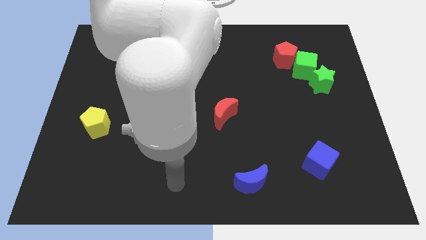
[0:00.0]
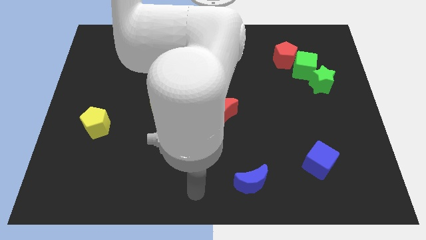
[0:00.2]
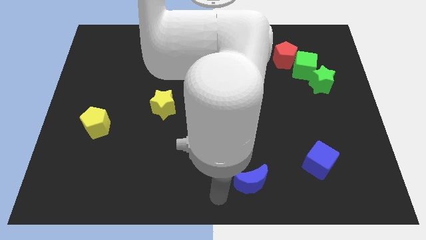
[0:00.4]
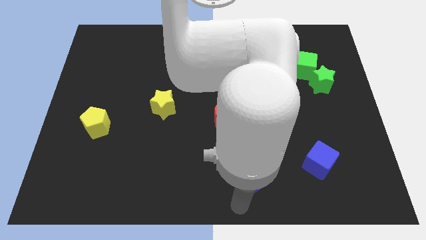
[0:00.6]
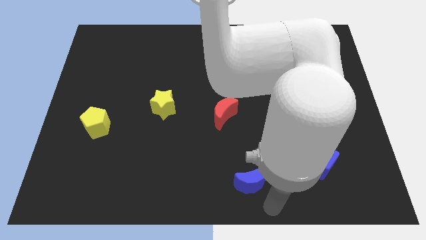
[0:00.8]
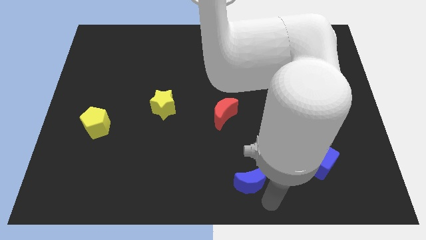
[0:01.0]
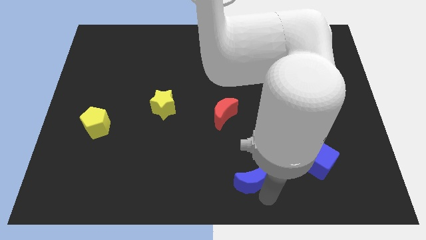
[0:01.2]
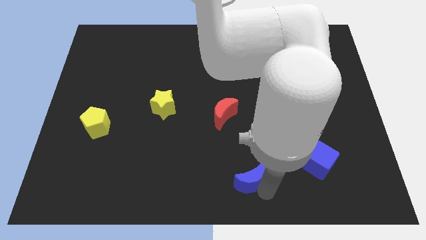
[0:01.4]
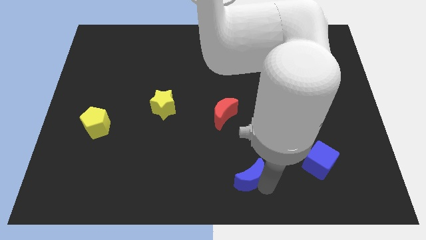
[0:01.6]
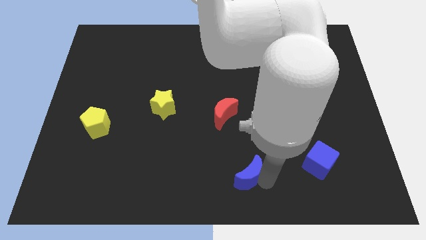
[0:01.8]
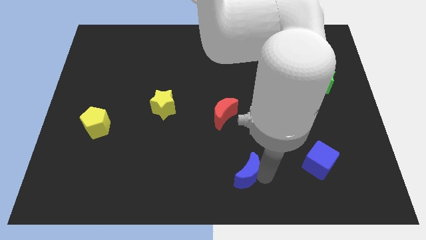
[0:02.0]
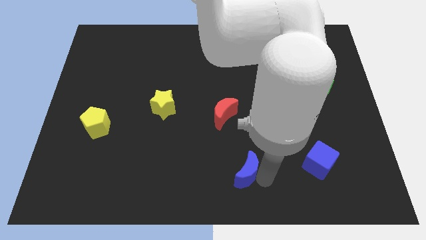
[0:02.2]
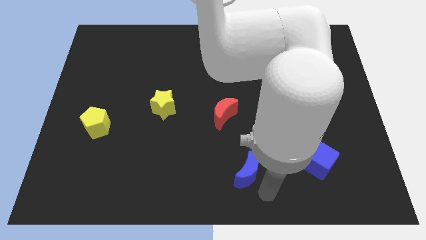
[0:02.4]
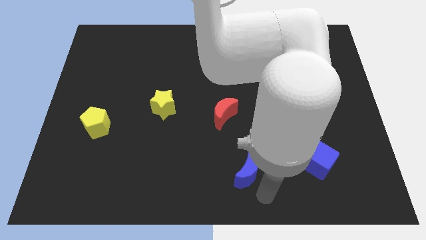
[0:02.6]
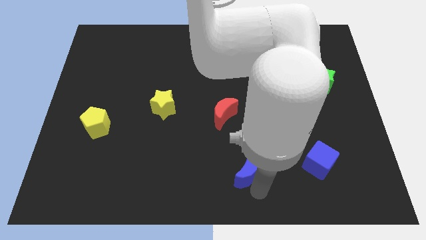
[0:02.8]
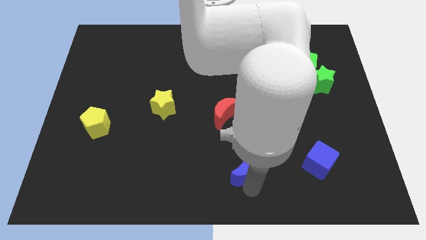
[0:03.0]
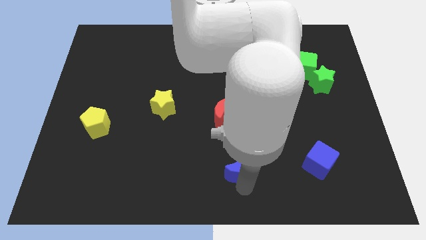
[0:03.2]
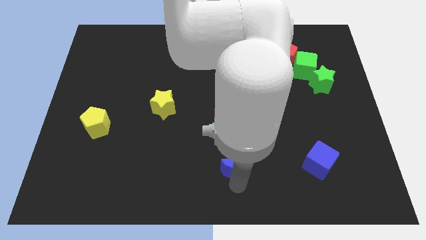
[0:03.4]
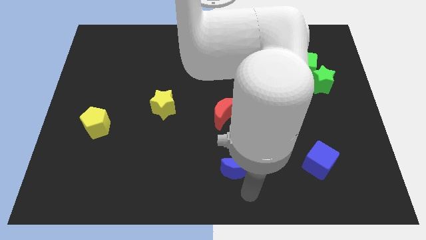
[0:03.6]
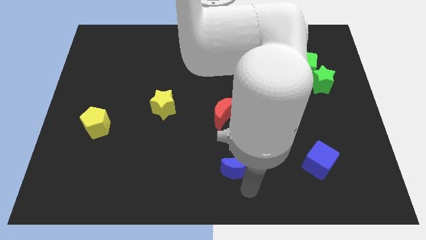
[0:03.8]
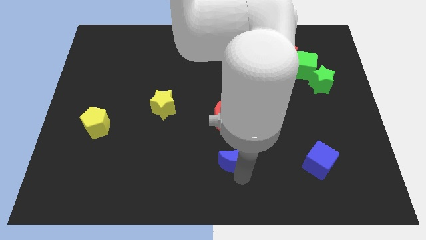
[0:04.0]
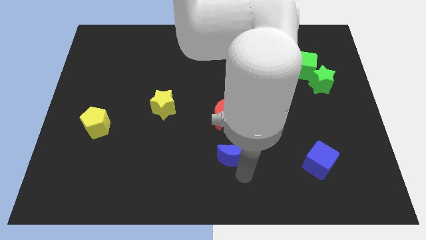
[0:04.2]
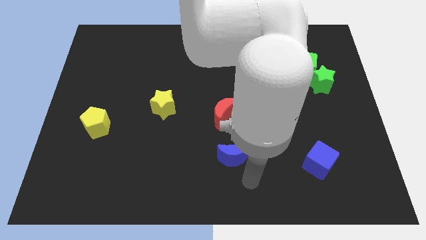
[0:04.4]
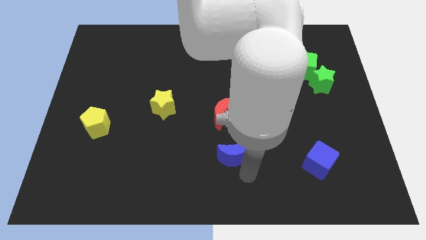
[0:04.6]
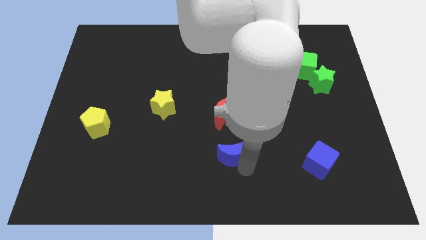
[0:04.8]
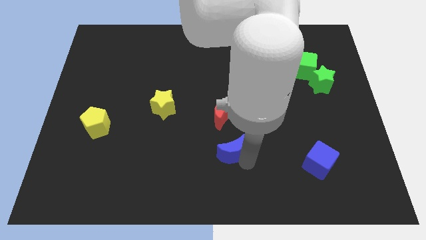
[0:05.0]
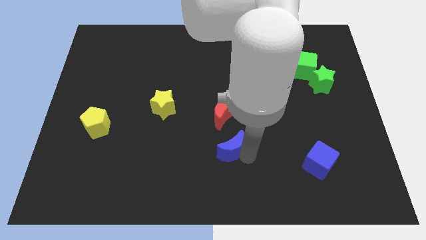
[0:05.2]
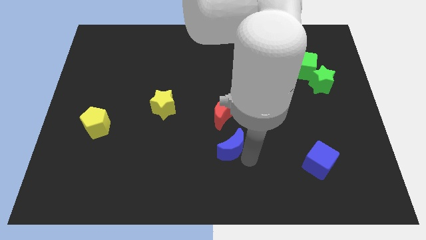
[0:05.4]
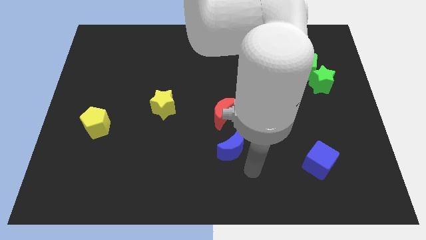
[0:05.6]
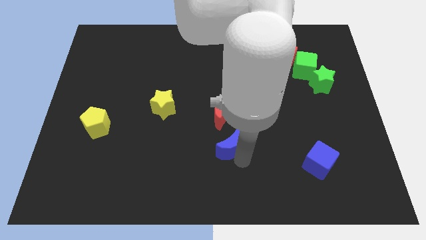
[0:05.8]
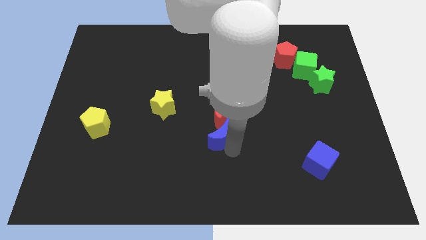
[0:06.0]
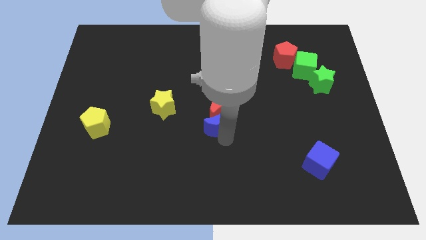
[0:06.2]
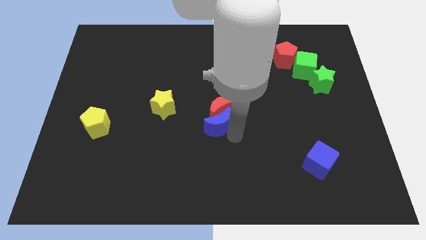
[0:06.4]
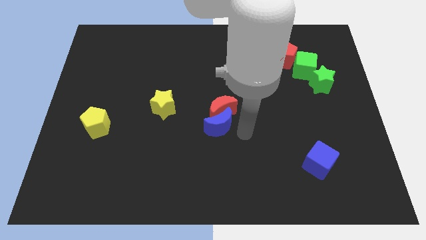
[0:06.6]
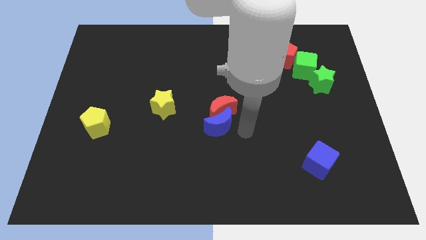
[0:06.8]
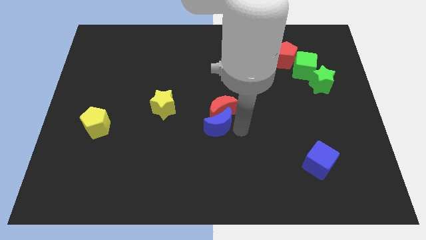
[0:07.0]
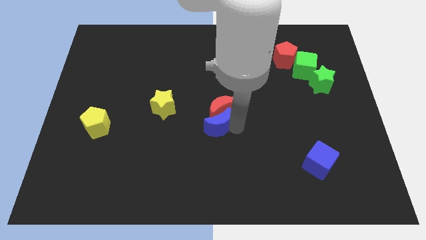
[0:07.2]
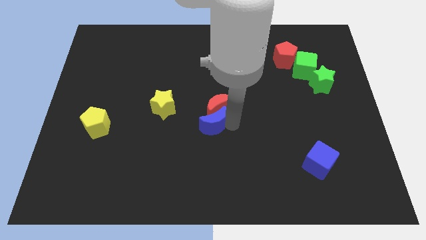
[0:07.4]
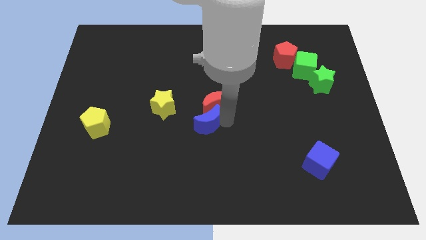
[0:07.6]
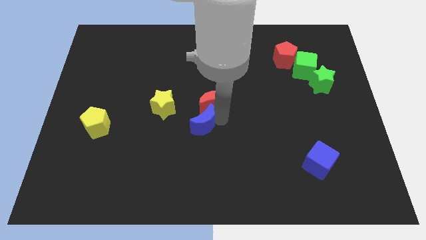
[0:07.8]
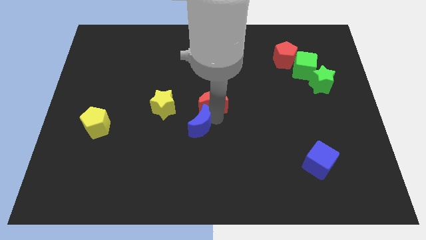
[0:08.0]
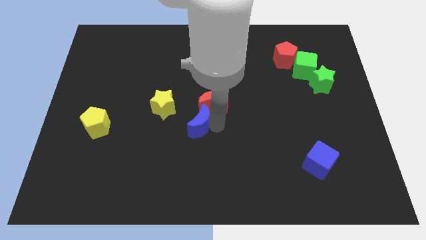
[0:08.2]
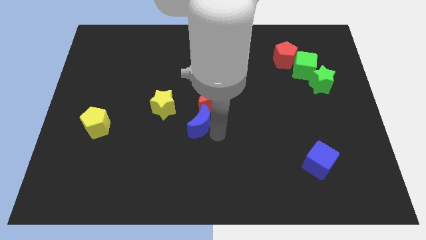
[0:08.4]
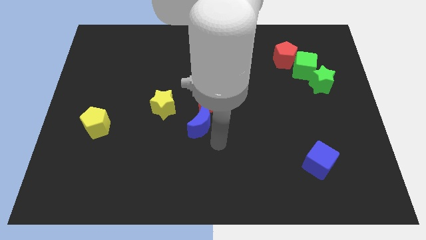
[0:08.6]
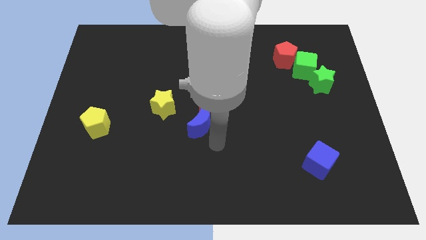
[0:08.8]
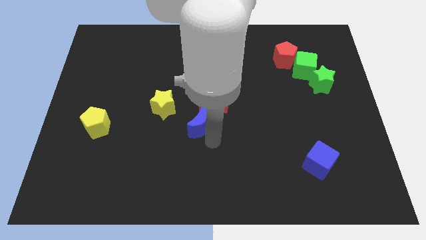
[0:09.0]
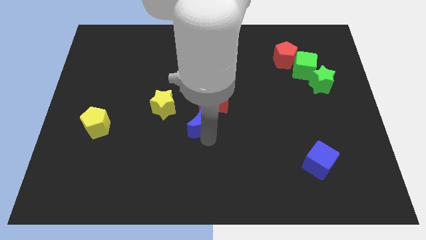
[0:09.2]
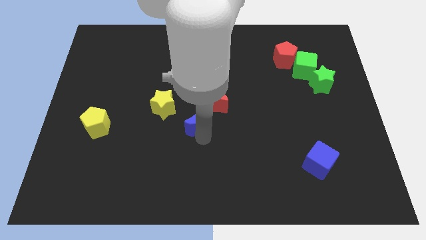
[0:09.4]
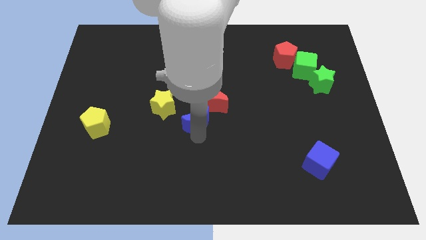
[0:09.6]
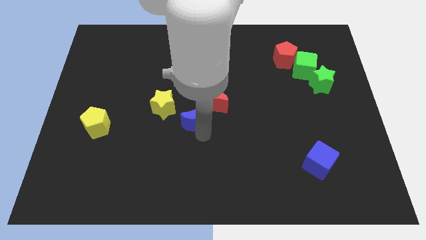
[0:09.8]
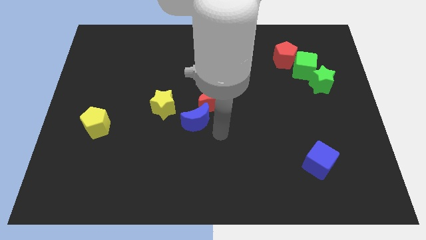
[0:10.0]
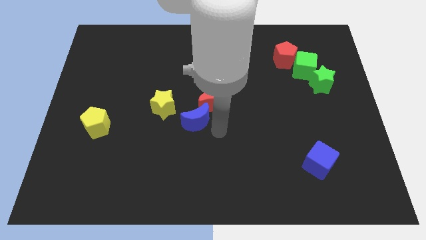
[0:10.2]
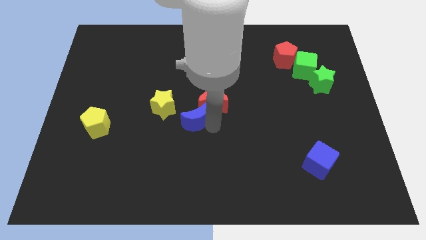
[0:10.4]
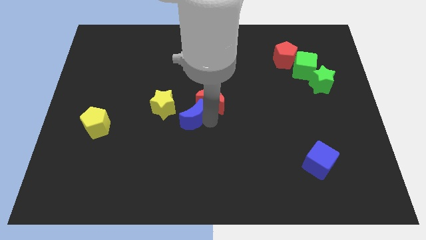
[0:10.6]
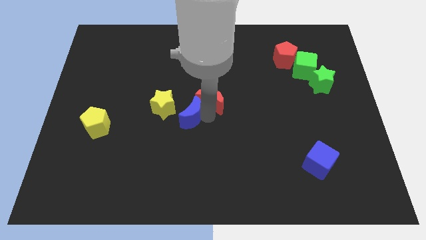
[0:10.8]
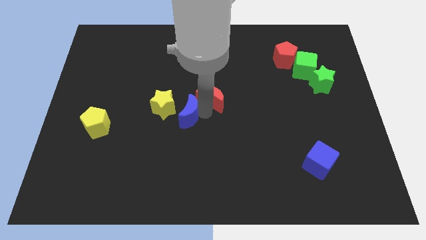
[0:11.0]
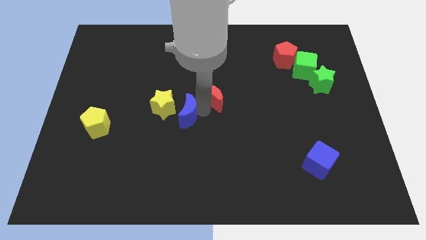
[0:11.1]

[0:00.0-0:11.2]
slide the blue moon next to the yellow star

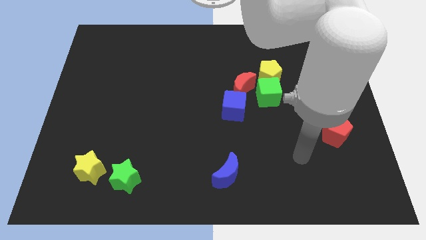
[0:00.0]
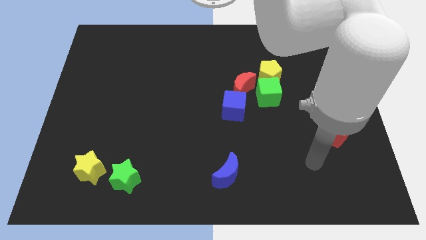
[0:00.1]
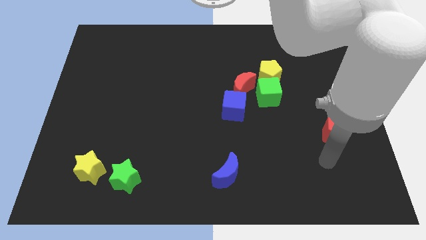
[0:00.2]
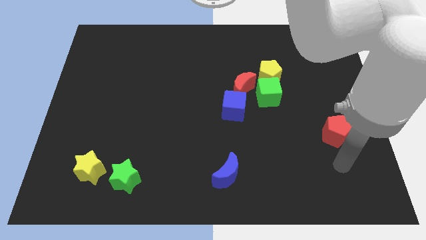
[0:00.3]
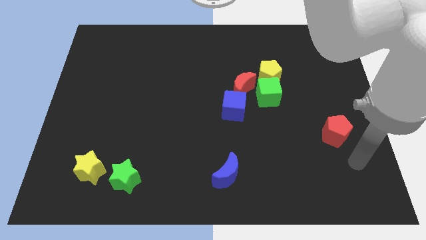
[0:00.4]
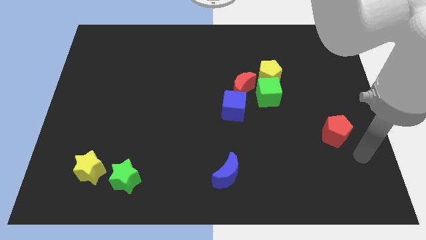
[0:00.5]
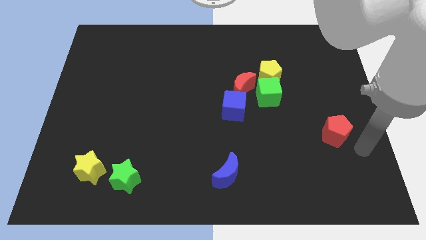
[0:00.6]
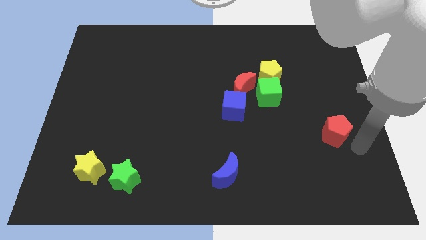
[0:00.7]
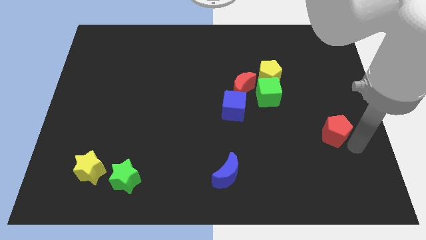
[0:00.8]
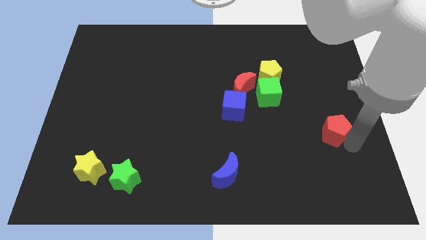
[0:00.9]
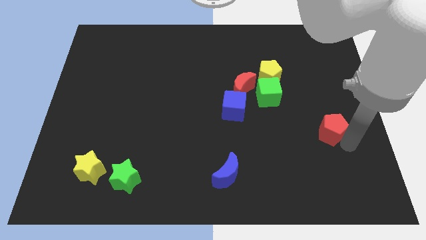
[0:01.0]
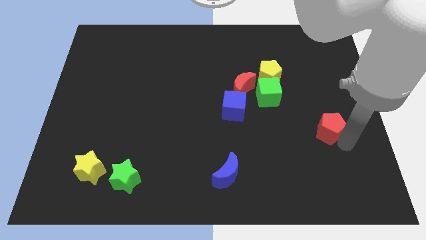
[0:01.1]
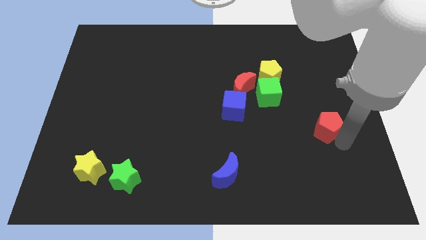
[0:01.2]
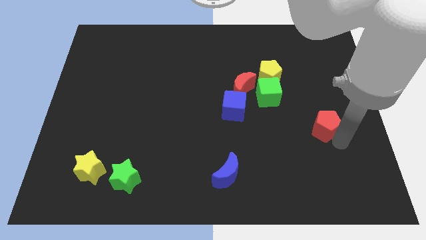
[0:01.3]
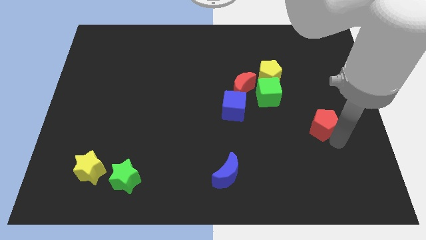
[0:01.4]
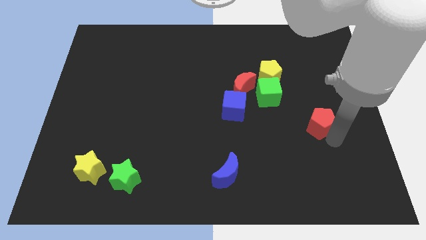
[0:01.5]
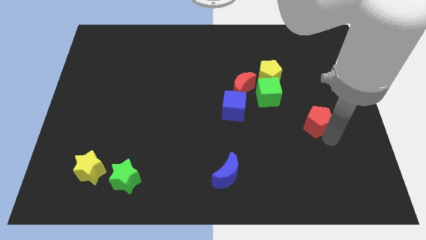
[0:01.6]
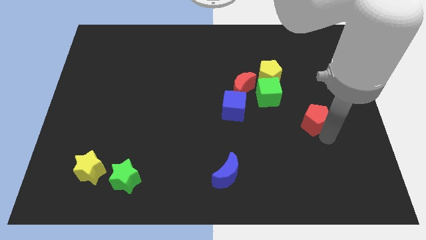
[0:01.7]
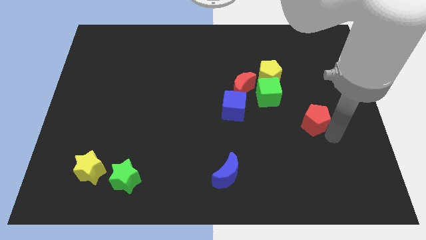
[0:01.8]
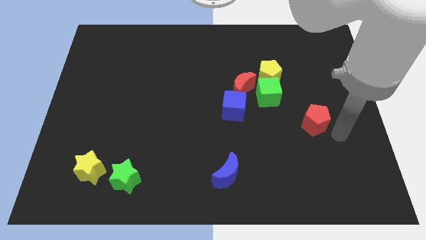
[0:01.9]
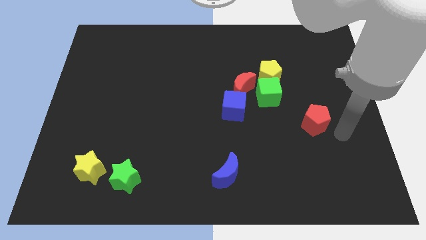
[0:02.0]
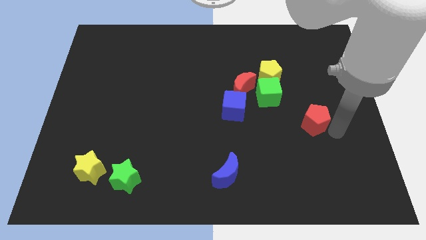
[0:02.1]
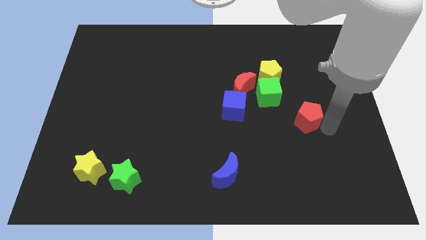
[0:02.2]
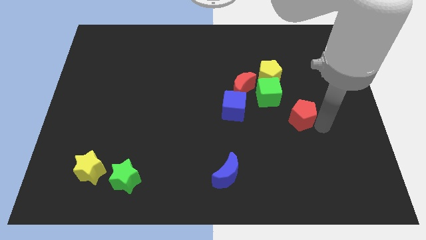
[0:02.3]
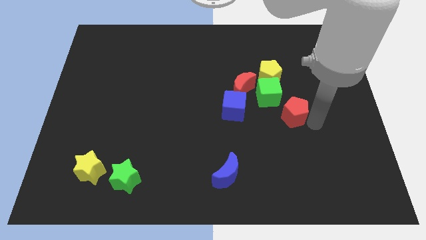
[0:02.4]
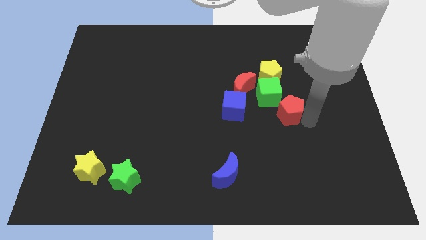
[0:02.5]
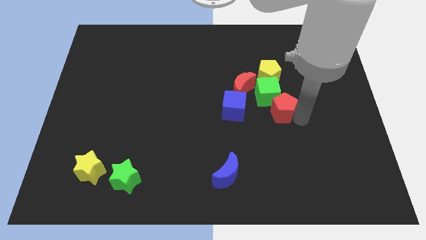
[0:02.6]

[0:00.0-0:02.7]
push the red pentagon to the green cube
